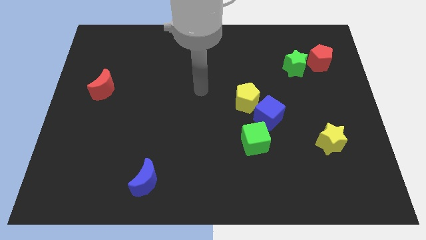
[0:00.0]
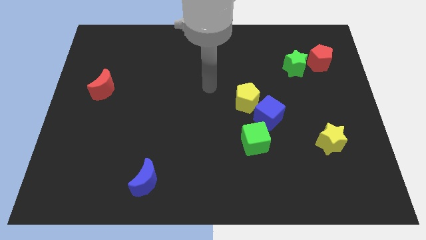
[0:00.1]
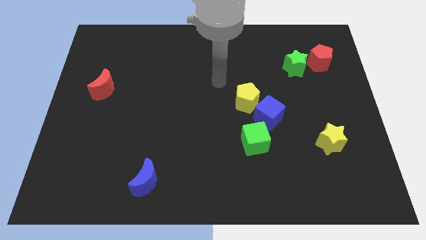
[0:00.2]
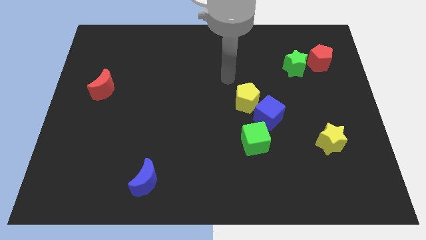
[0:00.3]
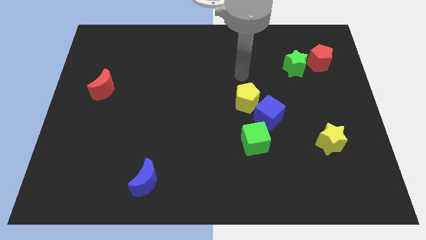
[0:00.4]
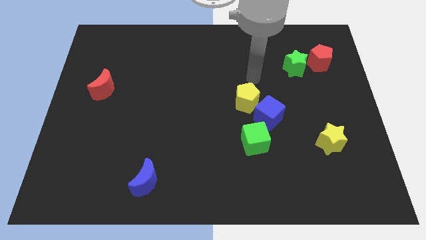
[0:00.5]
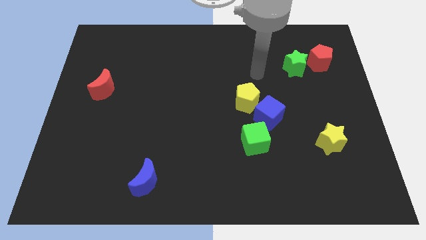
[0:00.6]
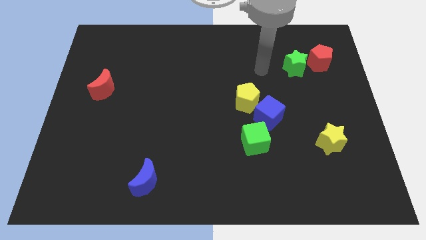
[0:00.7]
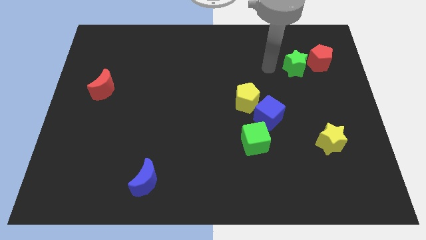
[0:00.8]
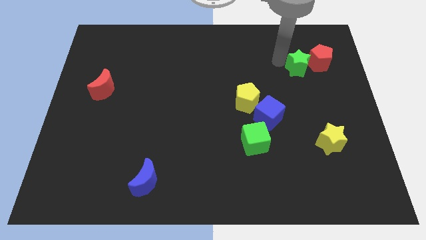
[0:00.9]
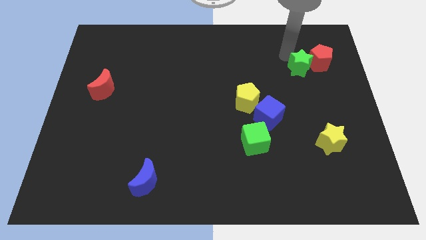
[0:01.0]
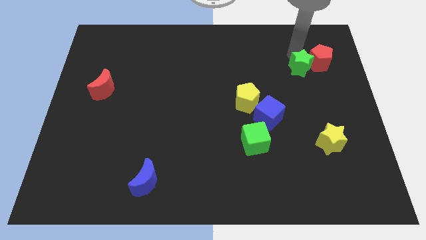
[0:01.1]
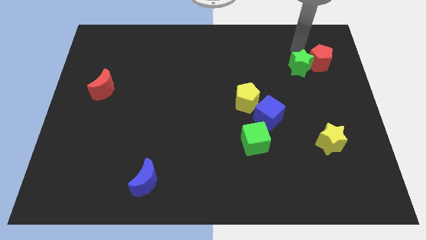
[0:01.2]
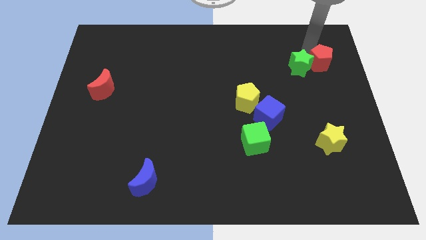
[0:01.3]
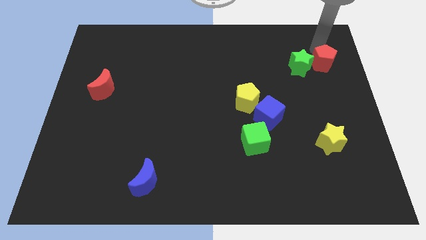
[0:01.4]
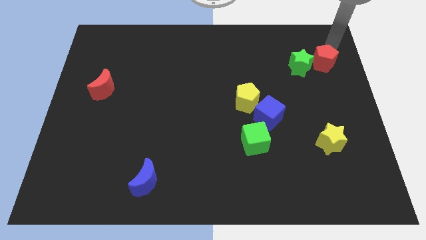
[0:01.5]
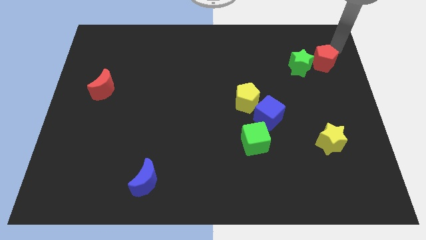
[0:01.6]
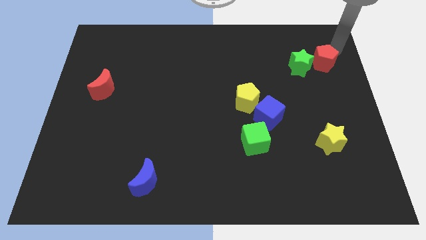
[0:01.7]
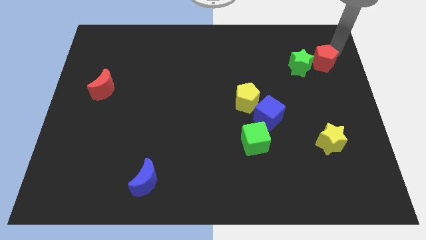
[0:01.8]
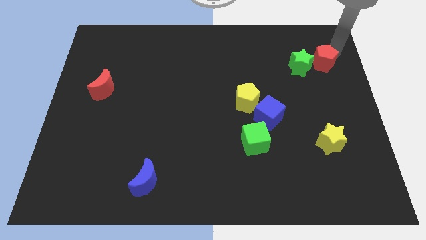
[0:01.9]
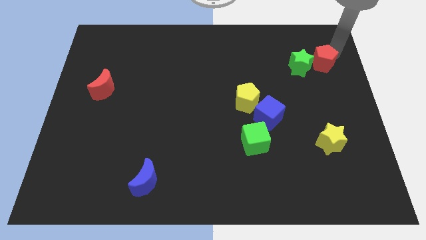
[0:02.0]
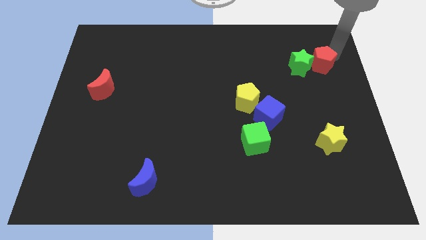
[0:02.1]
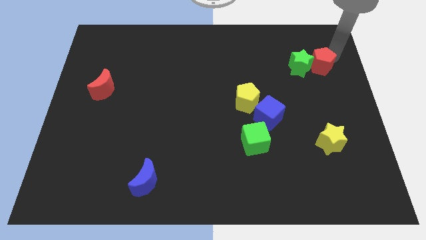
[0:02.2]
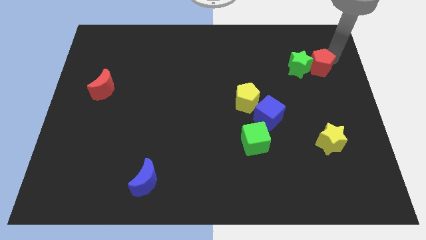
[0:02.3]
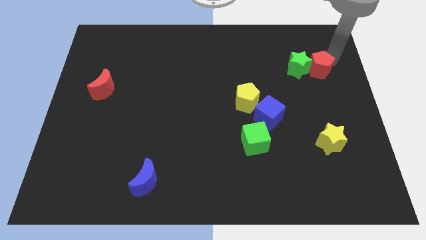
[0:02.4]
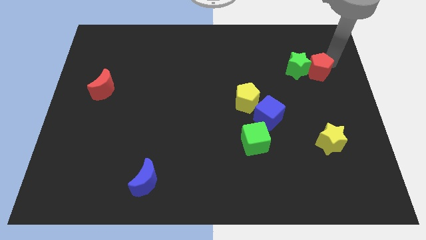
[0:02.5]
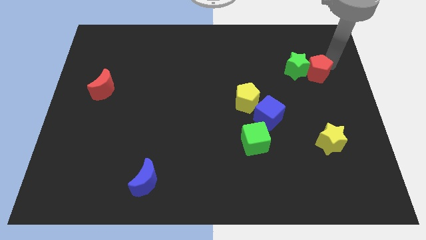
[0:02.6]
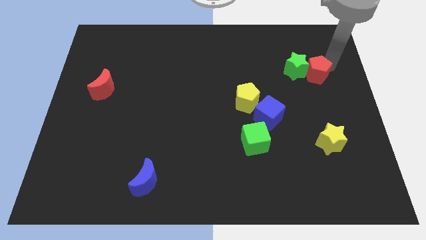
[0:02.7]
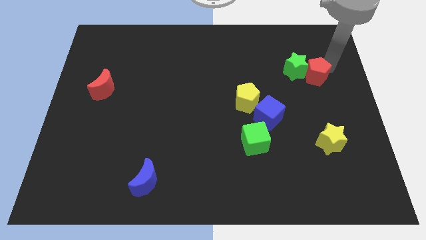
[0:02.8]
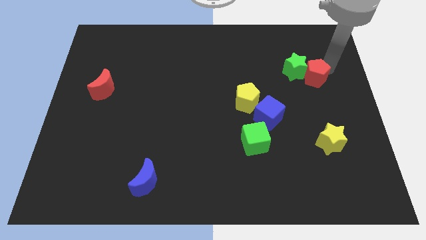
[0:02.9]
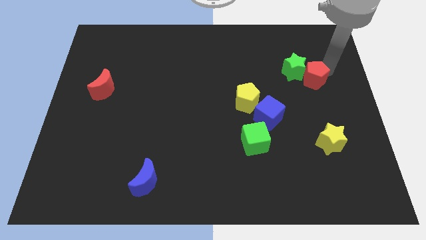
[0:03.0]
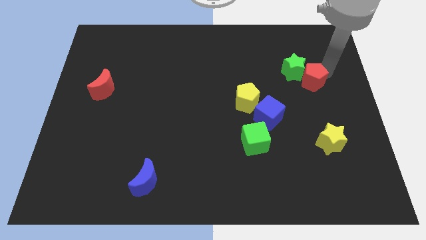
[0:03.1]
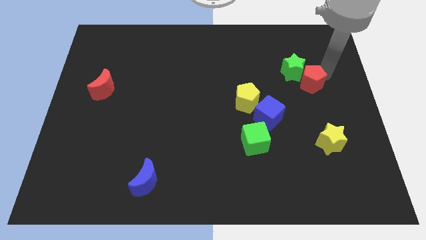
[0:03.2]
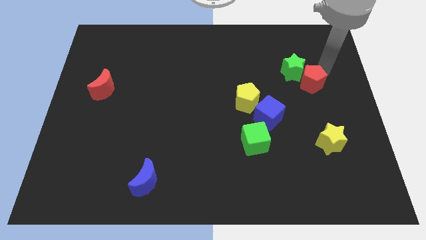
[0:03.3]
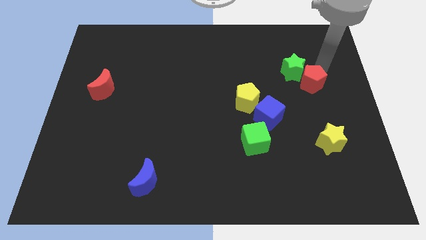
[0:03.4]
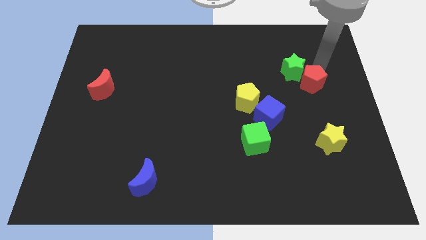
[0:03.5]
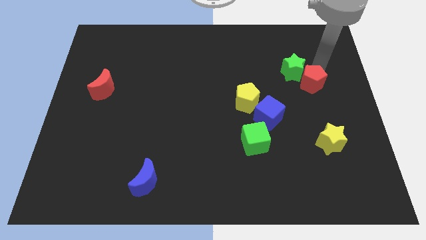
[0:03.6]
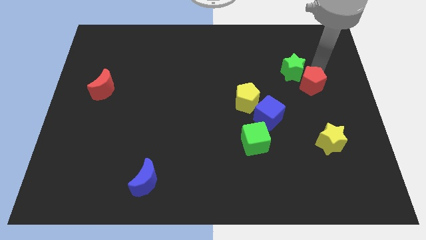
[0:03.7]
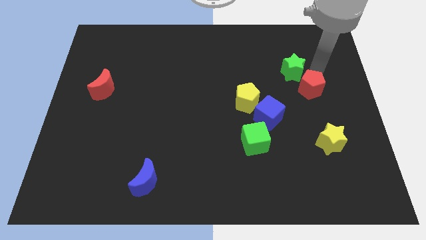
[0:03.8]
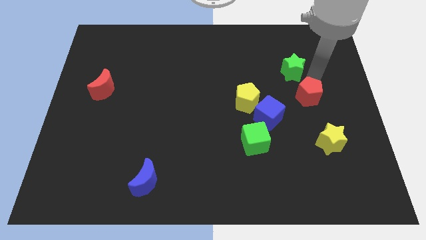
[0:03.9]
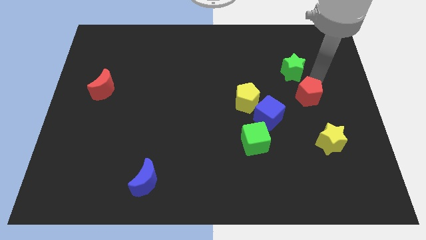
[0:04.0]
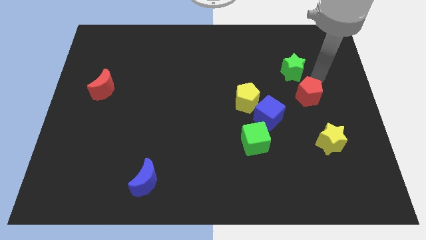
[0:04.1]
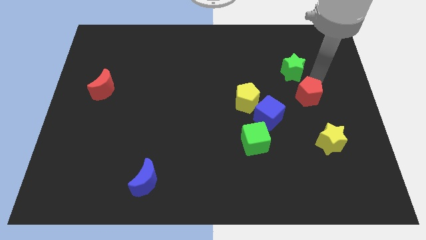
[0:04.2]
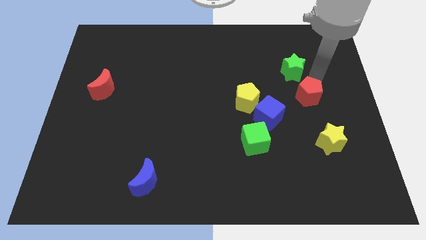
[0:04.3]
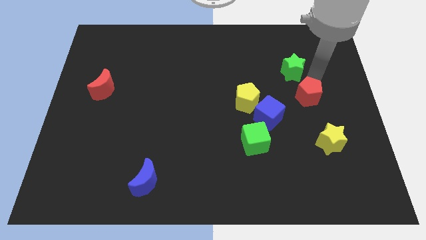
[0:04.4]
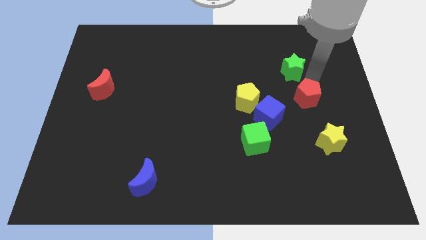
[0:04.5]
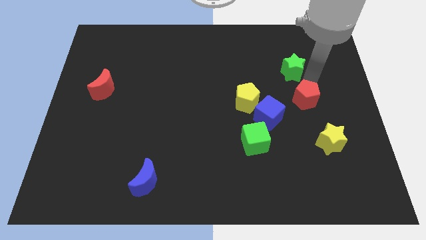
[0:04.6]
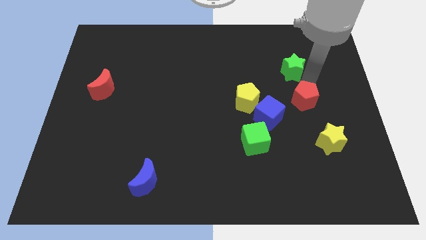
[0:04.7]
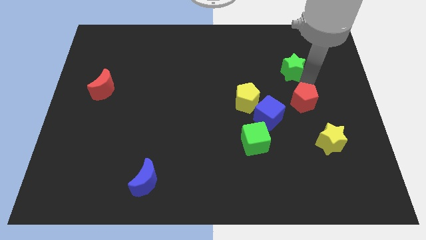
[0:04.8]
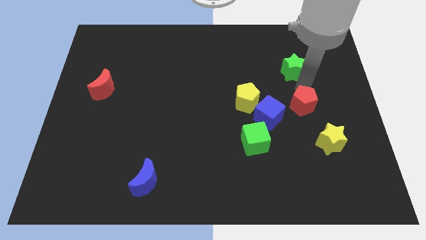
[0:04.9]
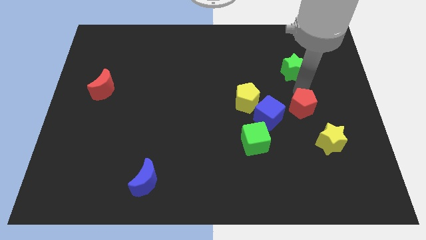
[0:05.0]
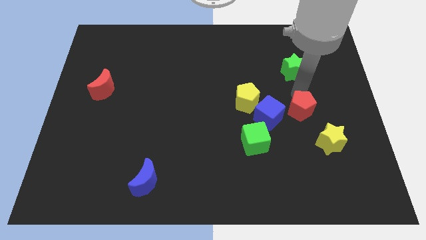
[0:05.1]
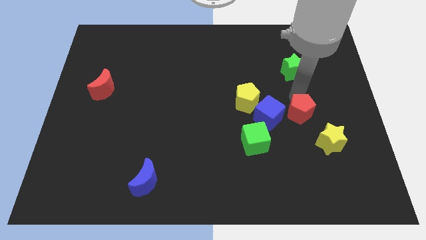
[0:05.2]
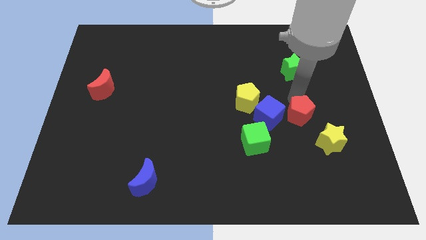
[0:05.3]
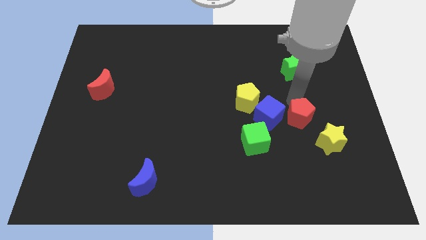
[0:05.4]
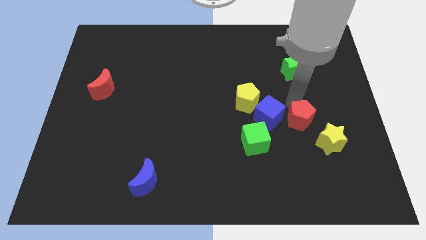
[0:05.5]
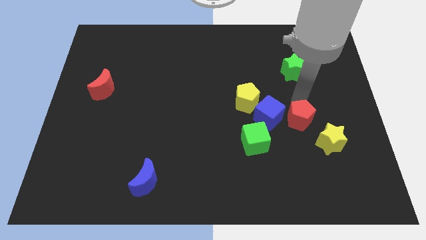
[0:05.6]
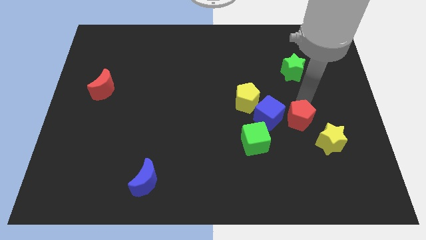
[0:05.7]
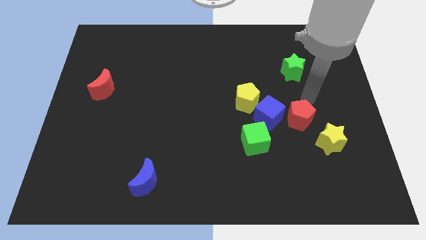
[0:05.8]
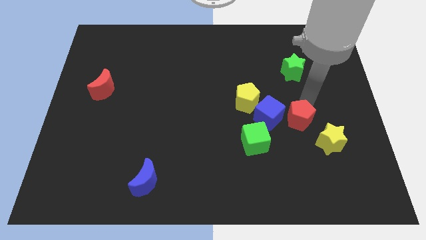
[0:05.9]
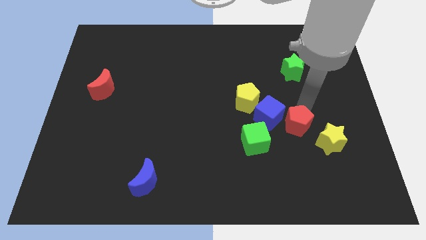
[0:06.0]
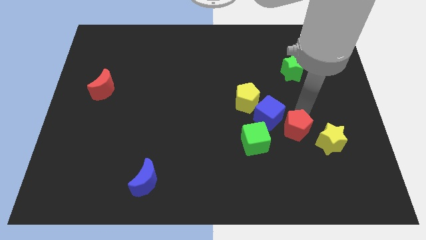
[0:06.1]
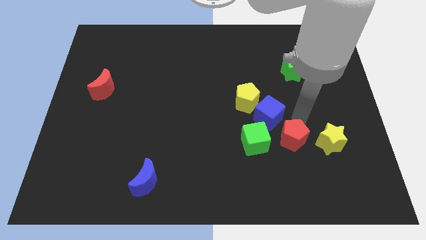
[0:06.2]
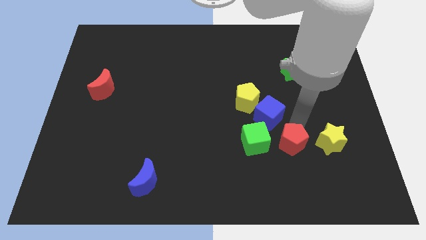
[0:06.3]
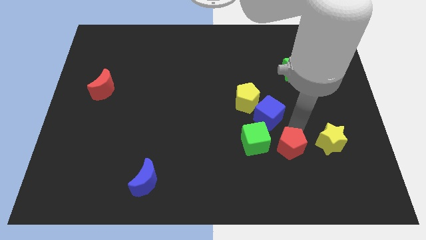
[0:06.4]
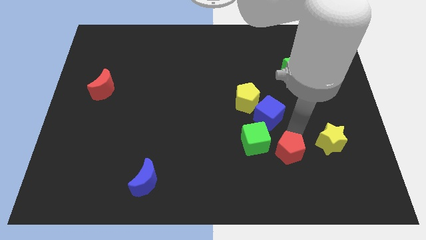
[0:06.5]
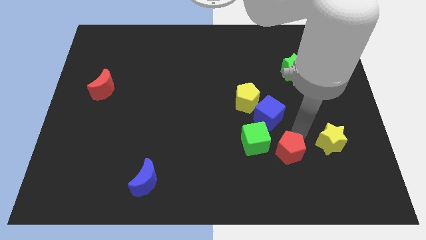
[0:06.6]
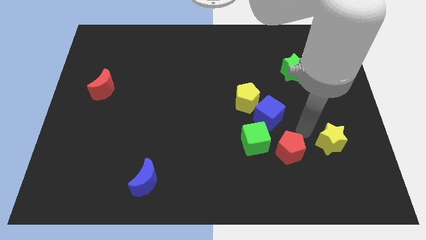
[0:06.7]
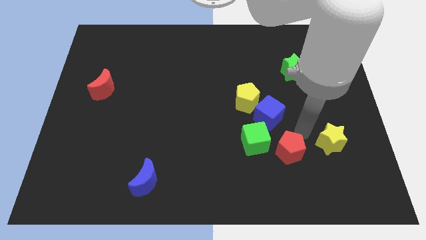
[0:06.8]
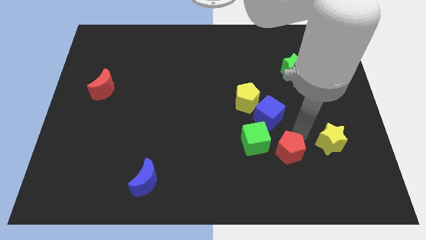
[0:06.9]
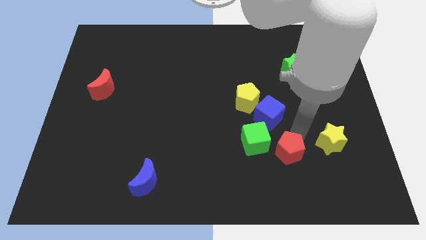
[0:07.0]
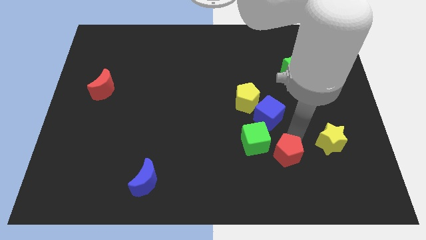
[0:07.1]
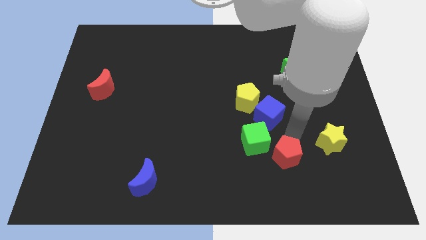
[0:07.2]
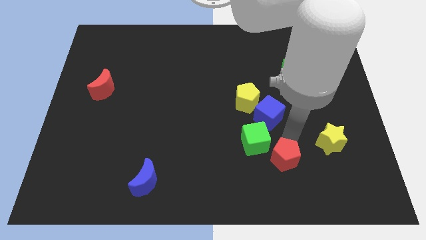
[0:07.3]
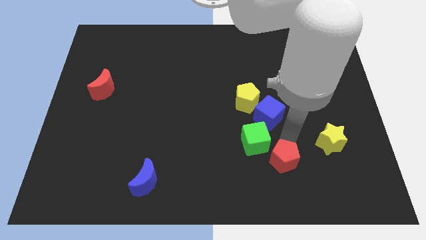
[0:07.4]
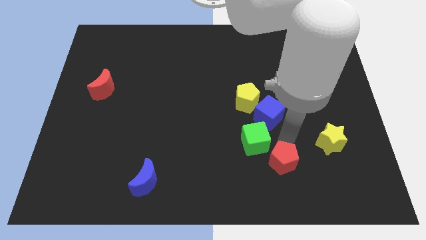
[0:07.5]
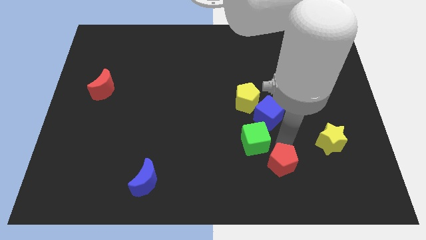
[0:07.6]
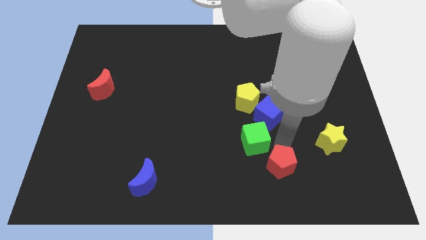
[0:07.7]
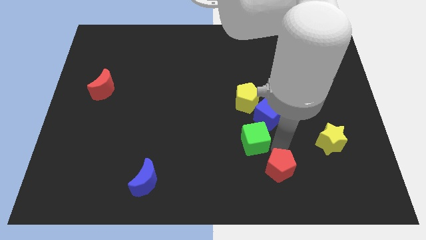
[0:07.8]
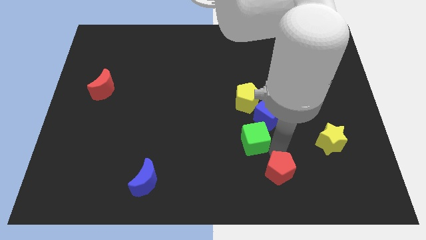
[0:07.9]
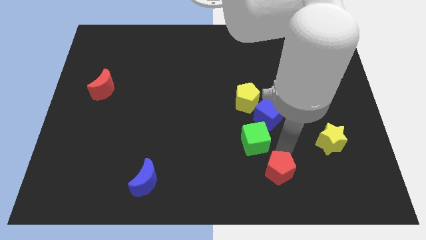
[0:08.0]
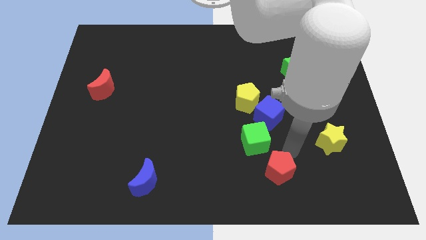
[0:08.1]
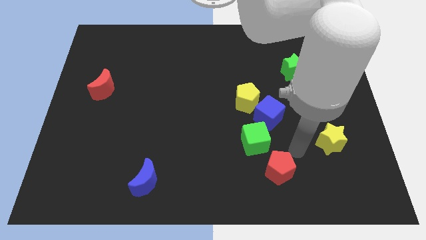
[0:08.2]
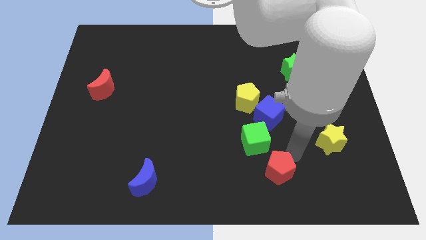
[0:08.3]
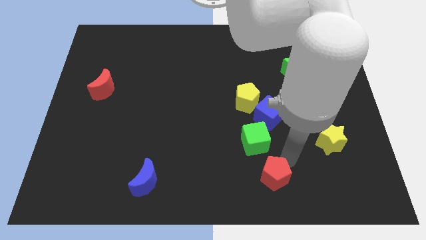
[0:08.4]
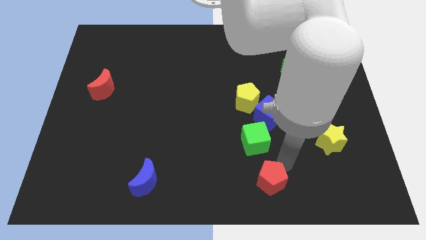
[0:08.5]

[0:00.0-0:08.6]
slide the red pentagon to the bottom side
